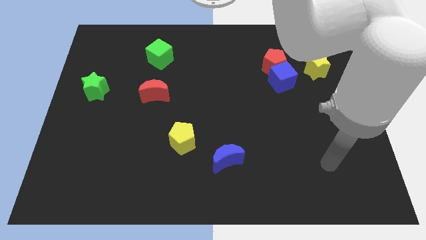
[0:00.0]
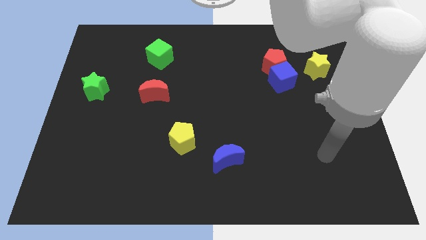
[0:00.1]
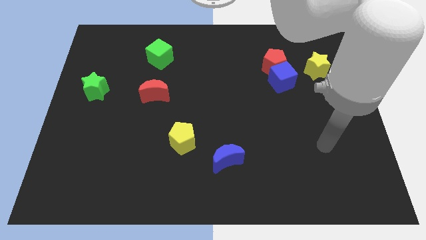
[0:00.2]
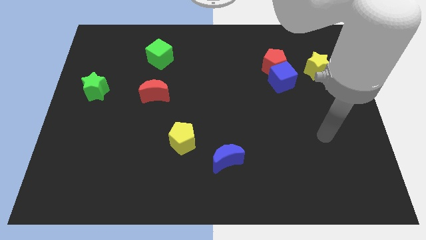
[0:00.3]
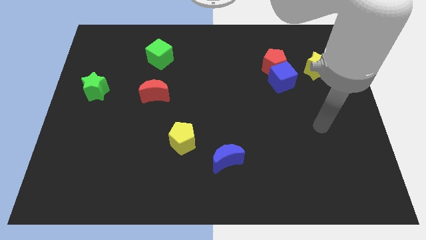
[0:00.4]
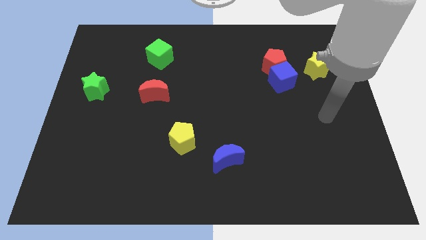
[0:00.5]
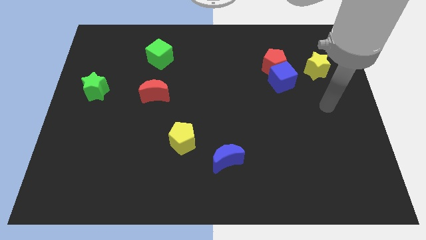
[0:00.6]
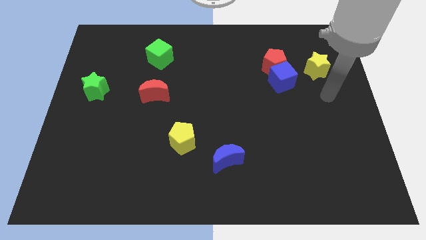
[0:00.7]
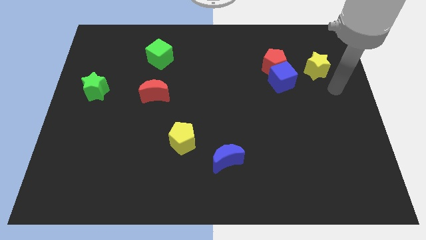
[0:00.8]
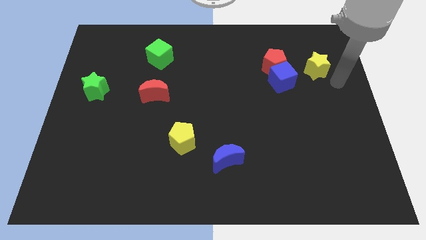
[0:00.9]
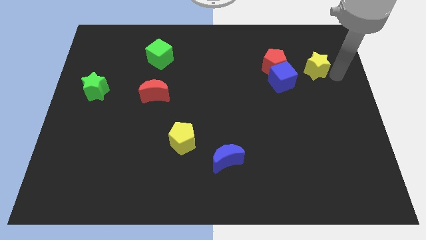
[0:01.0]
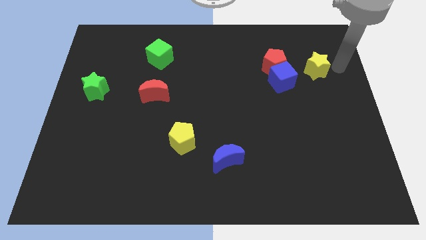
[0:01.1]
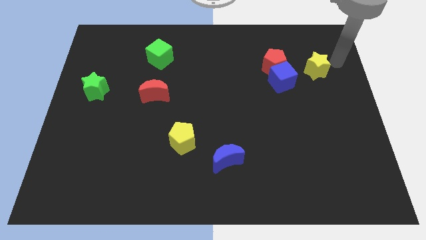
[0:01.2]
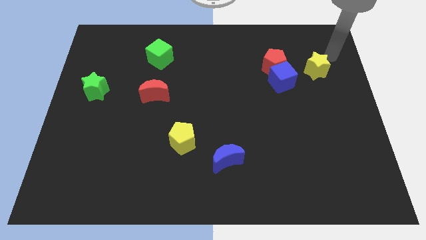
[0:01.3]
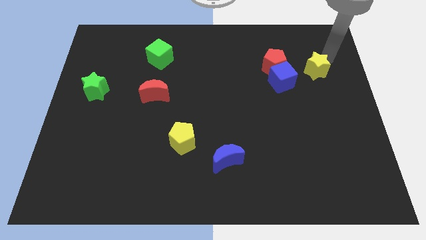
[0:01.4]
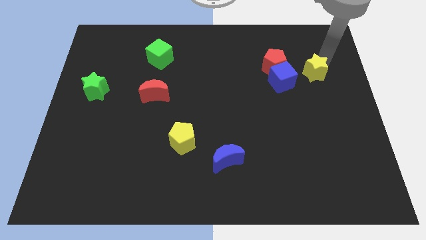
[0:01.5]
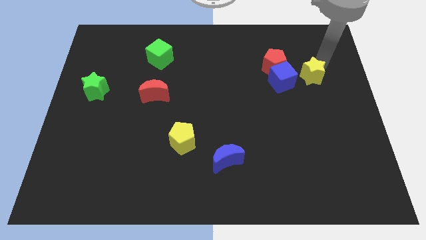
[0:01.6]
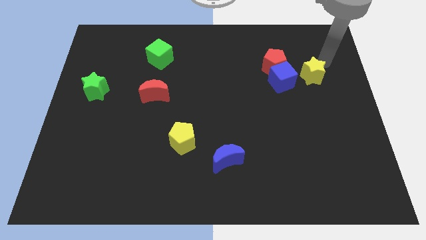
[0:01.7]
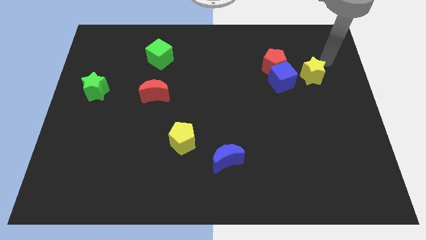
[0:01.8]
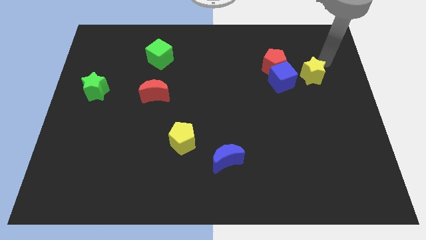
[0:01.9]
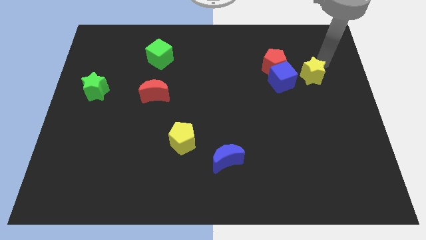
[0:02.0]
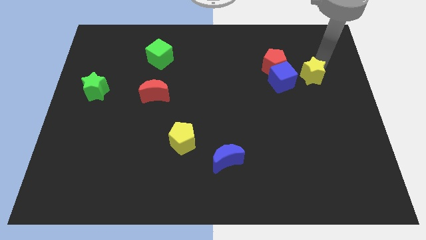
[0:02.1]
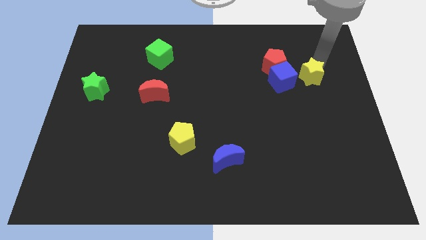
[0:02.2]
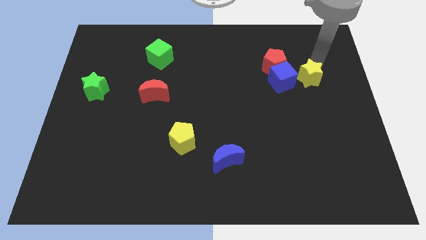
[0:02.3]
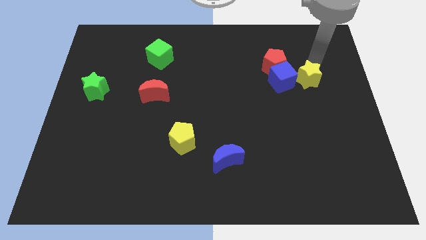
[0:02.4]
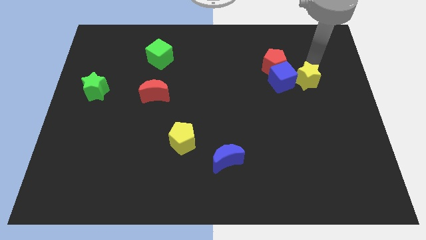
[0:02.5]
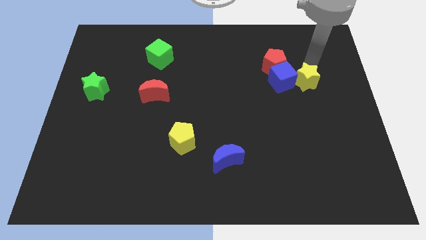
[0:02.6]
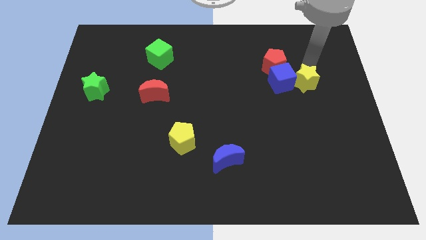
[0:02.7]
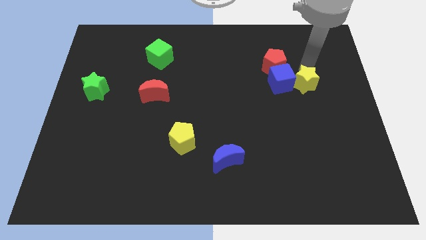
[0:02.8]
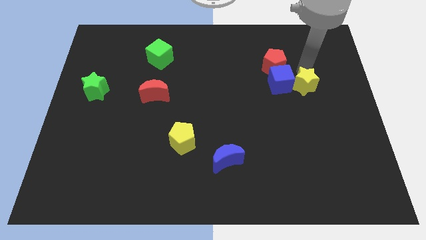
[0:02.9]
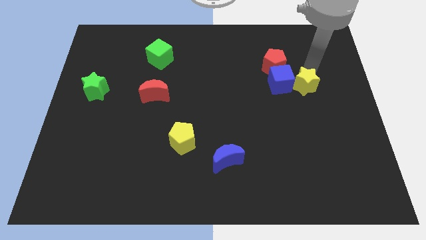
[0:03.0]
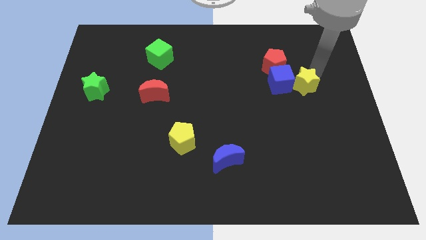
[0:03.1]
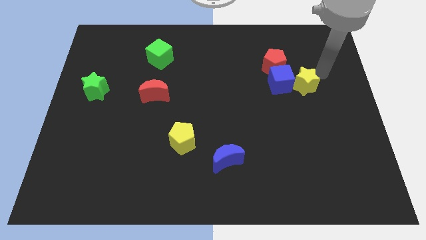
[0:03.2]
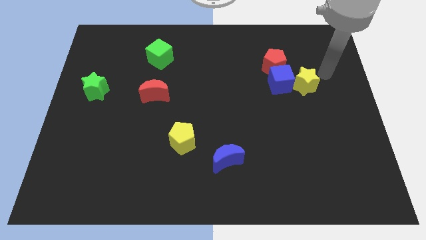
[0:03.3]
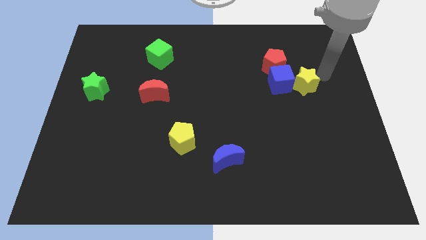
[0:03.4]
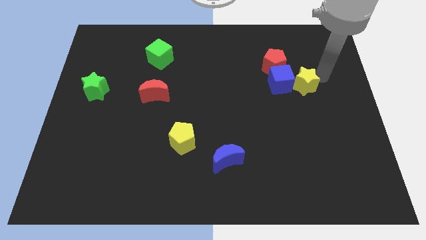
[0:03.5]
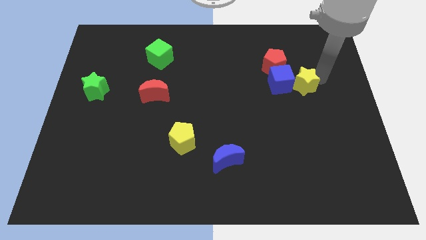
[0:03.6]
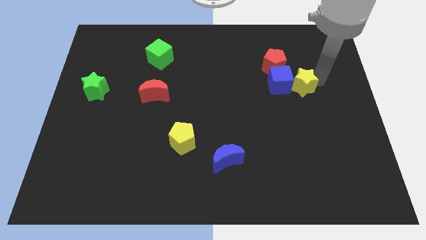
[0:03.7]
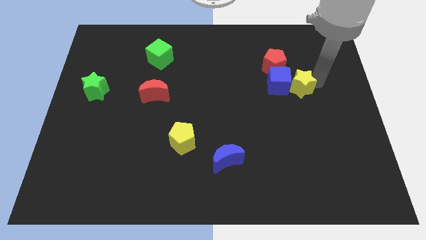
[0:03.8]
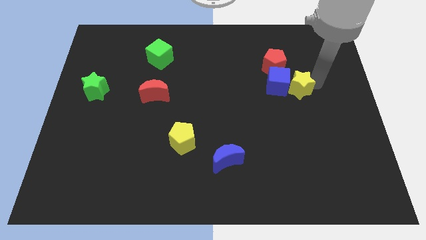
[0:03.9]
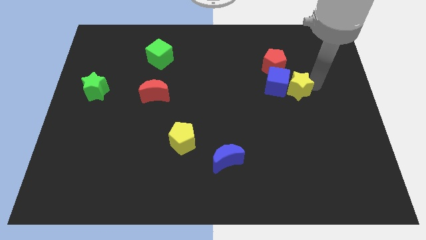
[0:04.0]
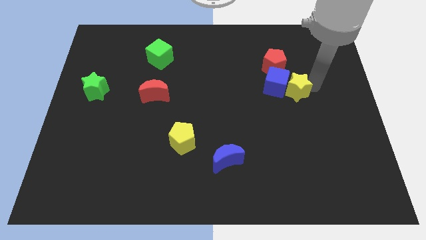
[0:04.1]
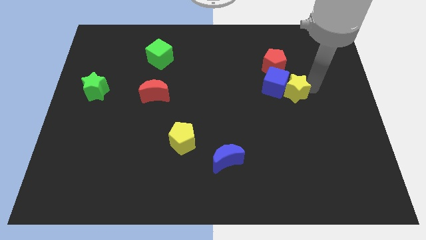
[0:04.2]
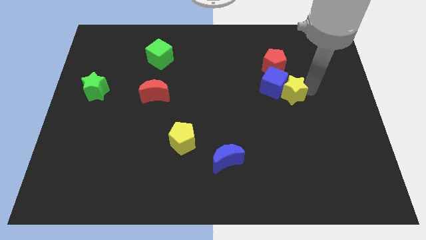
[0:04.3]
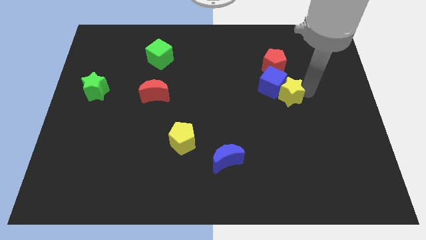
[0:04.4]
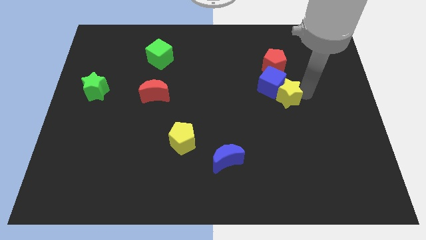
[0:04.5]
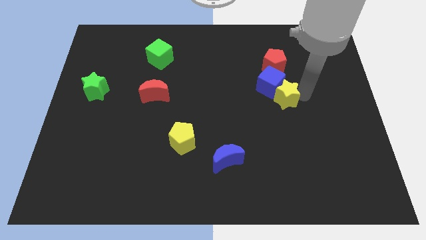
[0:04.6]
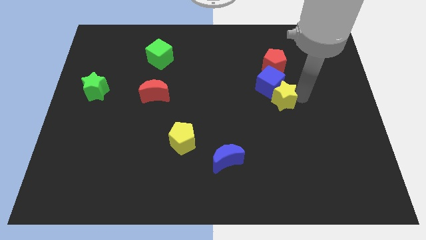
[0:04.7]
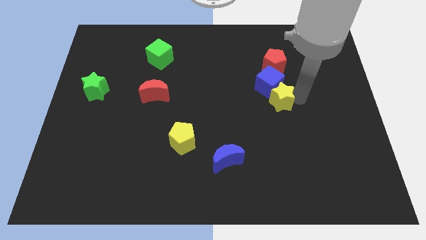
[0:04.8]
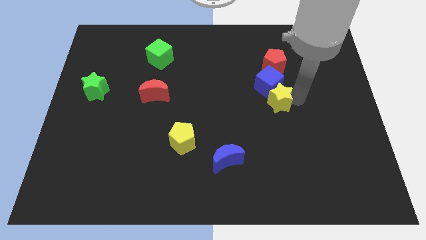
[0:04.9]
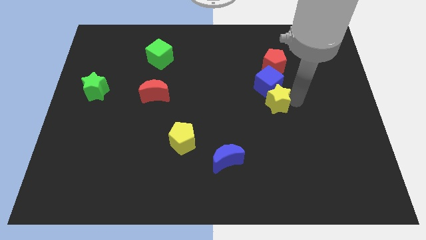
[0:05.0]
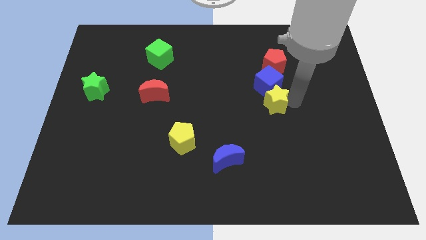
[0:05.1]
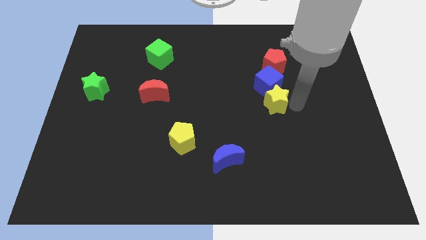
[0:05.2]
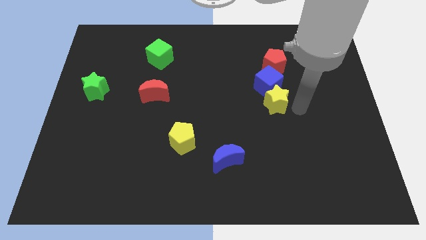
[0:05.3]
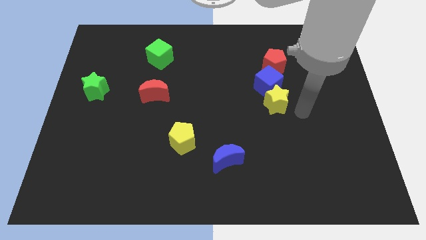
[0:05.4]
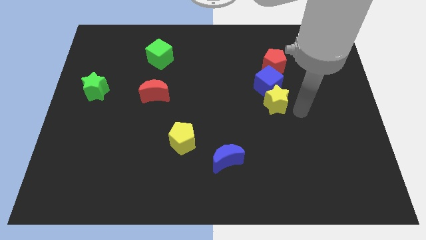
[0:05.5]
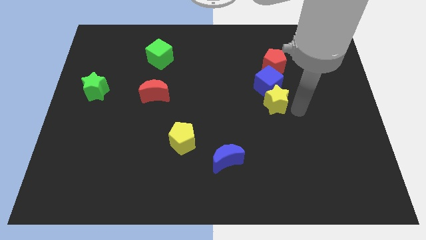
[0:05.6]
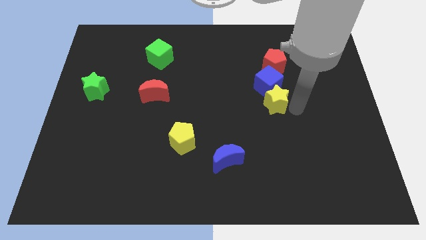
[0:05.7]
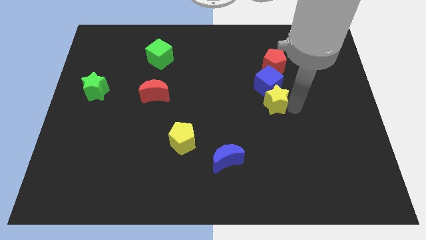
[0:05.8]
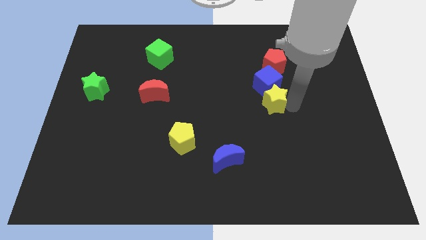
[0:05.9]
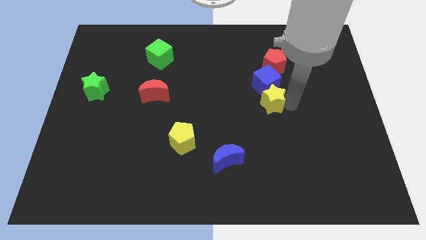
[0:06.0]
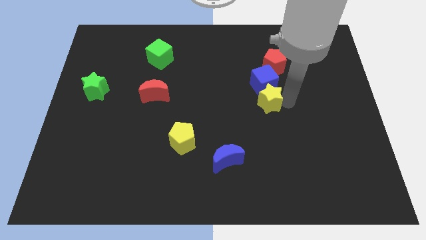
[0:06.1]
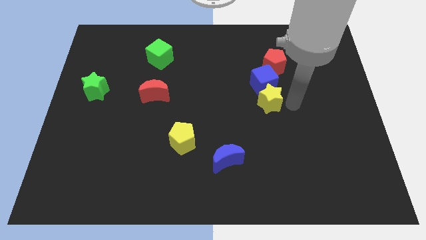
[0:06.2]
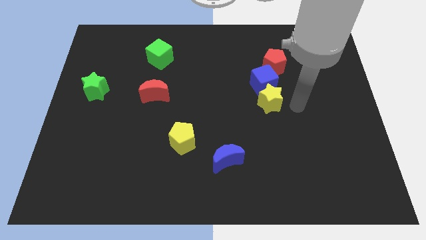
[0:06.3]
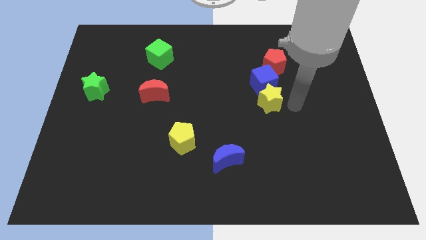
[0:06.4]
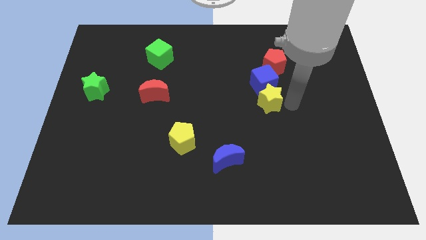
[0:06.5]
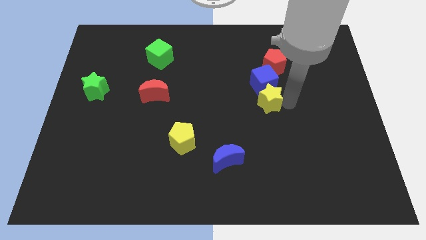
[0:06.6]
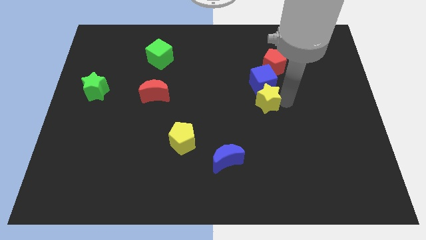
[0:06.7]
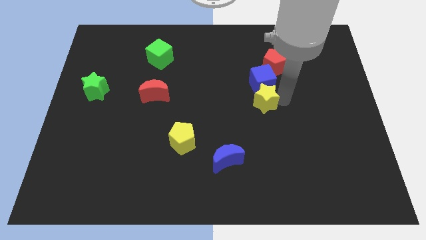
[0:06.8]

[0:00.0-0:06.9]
push the yellow star to the middle of the board
